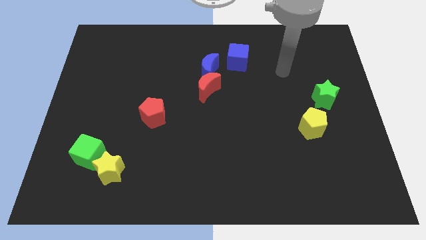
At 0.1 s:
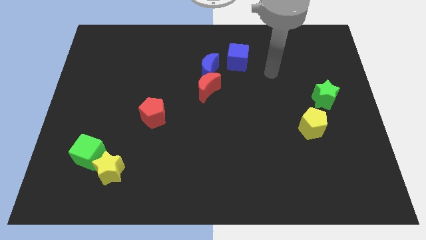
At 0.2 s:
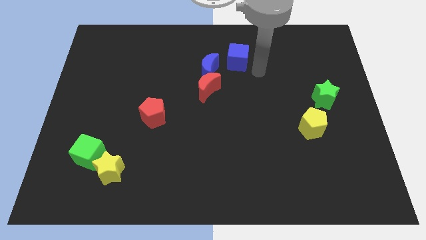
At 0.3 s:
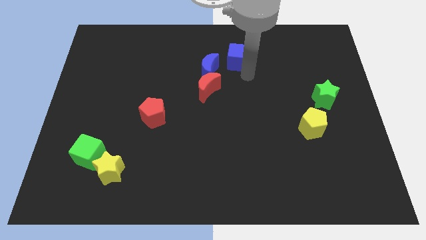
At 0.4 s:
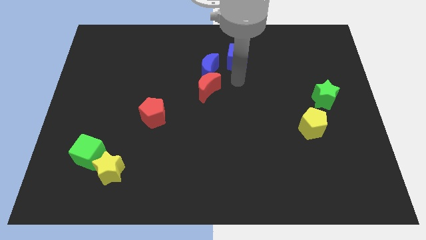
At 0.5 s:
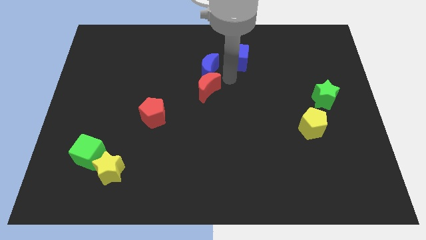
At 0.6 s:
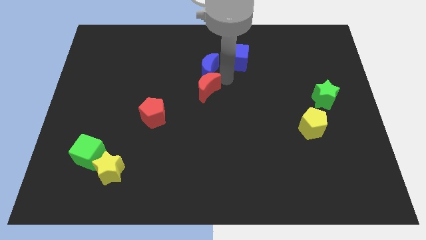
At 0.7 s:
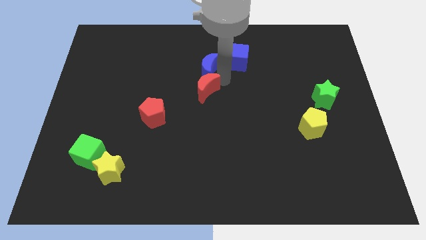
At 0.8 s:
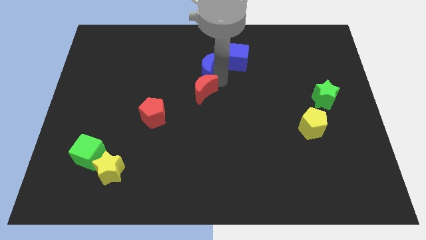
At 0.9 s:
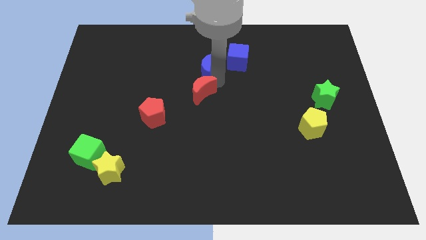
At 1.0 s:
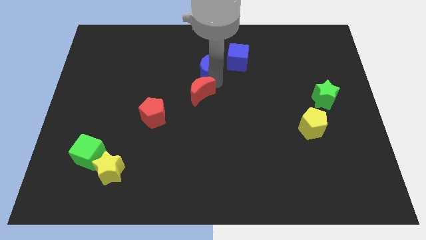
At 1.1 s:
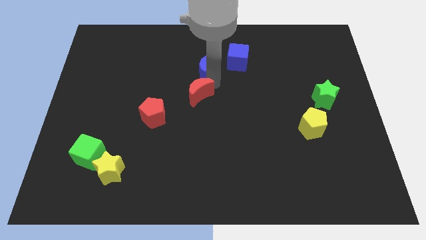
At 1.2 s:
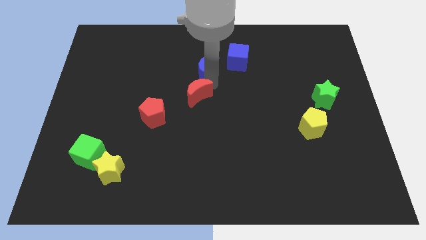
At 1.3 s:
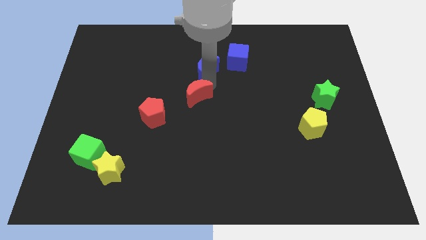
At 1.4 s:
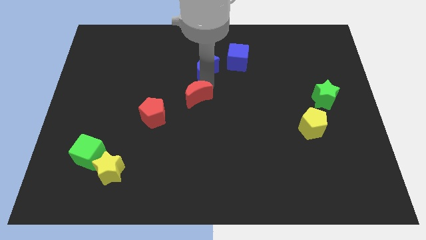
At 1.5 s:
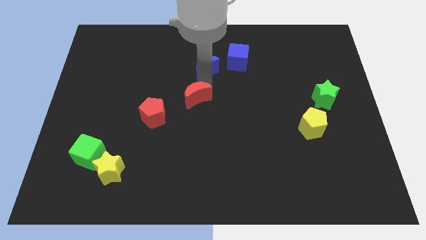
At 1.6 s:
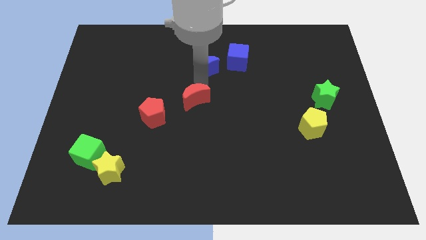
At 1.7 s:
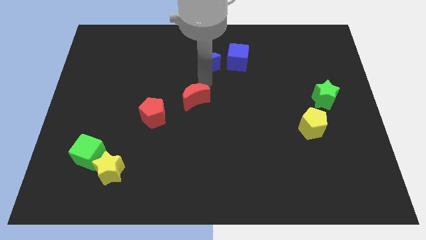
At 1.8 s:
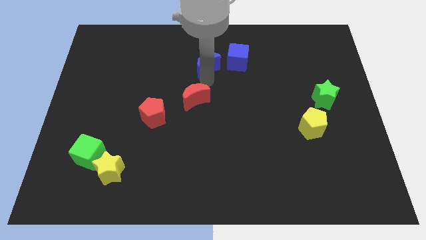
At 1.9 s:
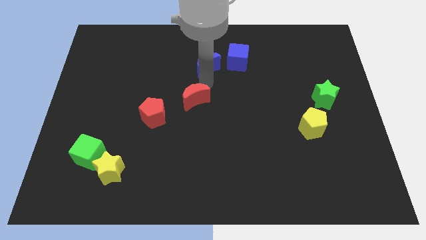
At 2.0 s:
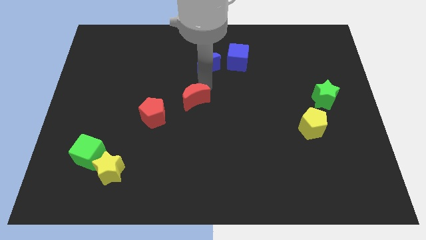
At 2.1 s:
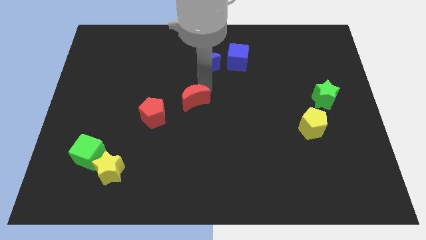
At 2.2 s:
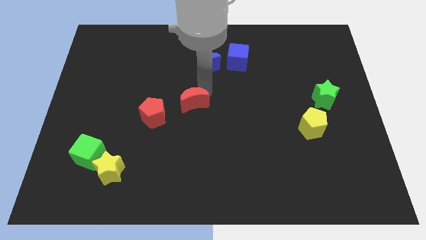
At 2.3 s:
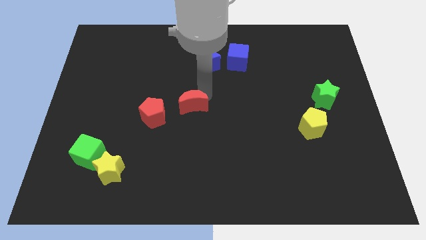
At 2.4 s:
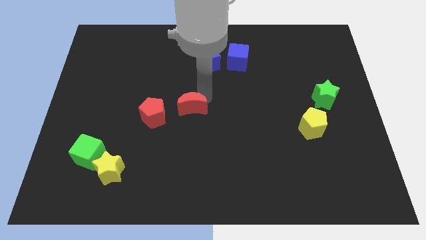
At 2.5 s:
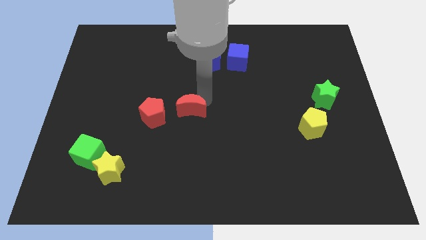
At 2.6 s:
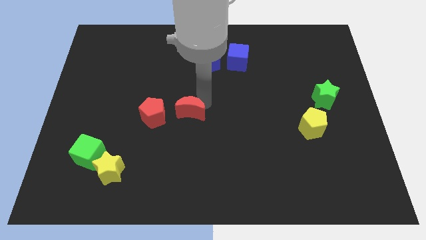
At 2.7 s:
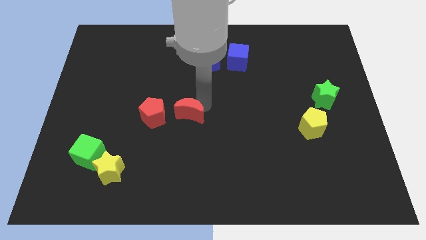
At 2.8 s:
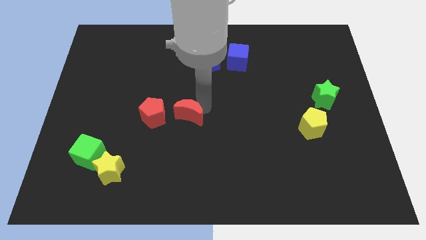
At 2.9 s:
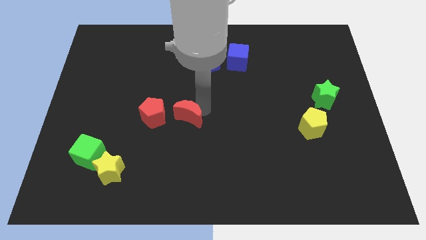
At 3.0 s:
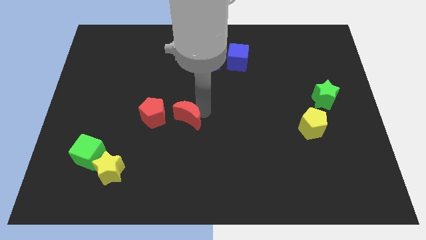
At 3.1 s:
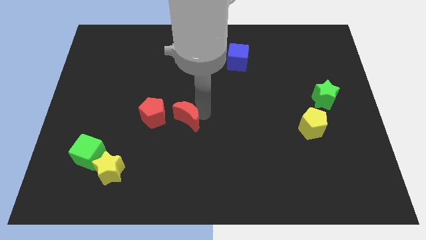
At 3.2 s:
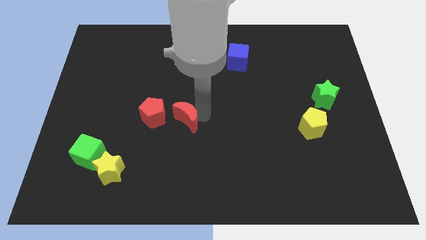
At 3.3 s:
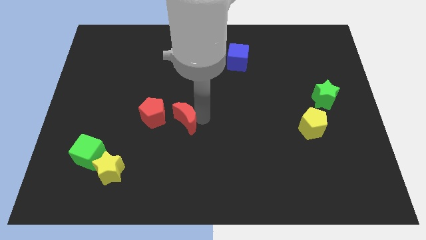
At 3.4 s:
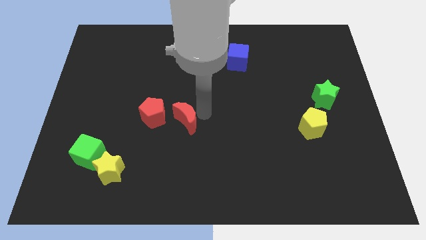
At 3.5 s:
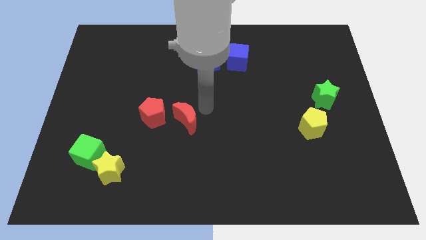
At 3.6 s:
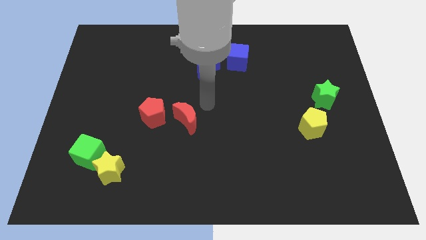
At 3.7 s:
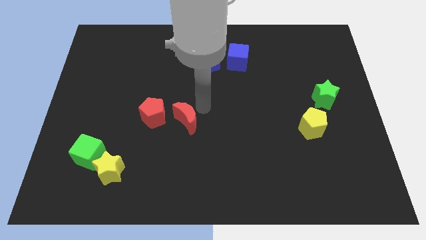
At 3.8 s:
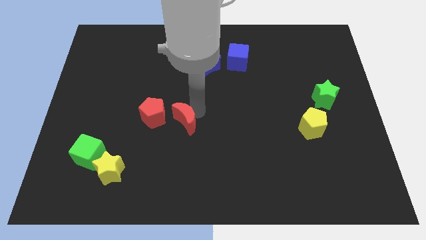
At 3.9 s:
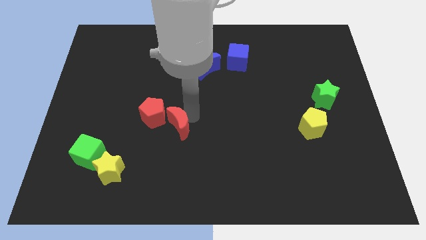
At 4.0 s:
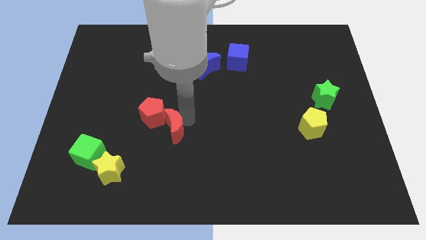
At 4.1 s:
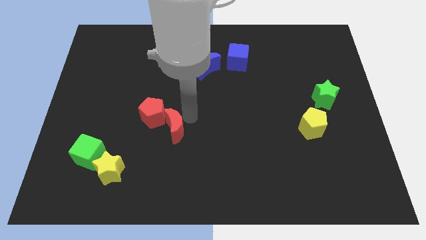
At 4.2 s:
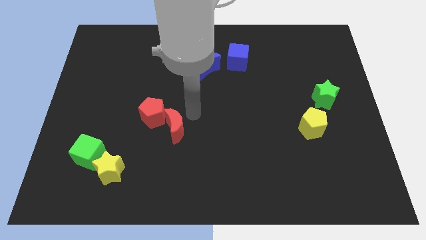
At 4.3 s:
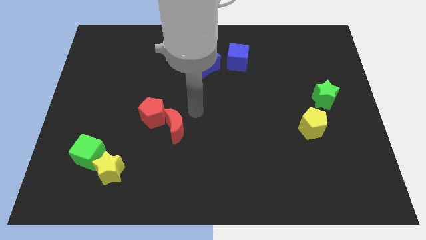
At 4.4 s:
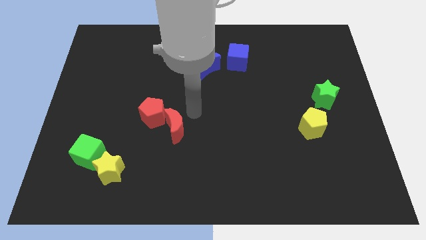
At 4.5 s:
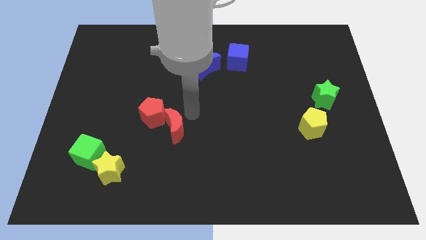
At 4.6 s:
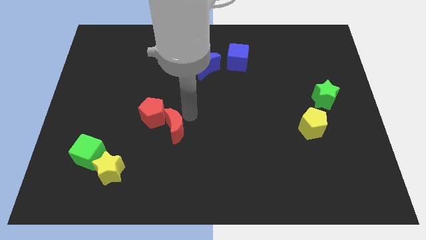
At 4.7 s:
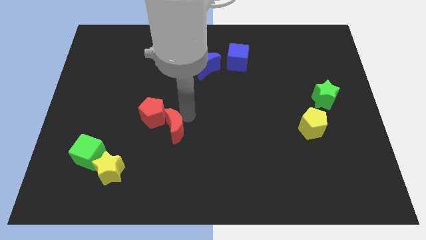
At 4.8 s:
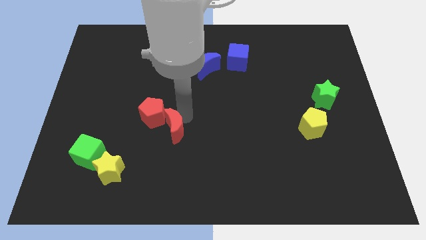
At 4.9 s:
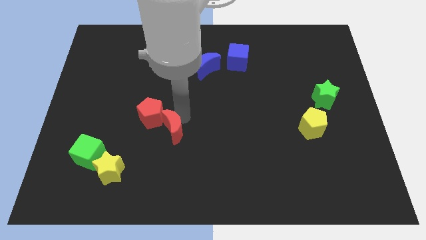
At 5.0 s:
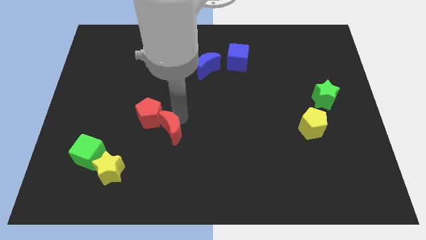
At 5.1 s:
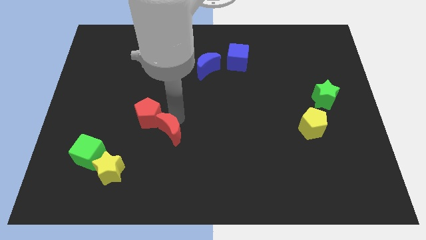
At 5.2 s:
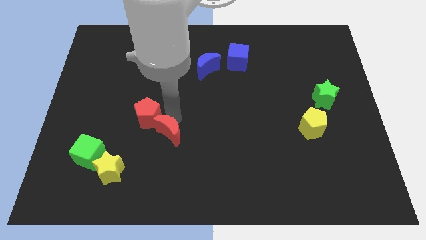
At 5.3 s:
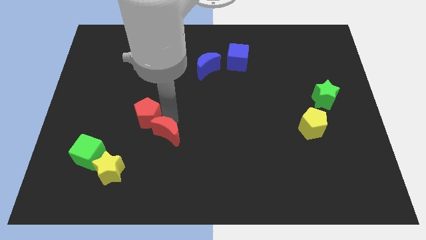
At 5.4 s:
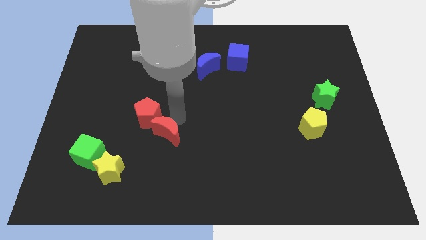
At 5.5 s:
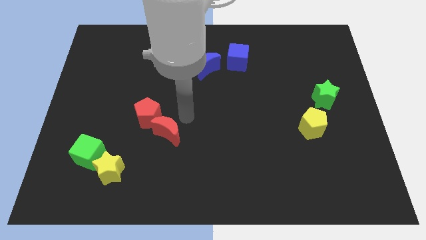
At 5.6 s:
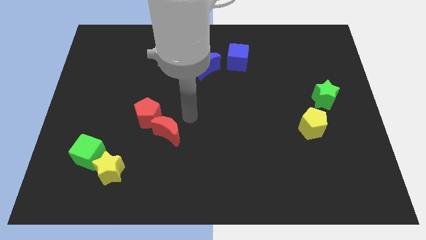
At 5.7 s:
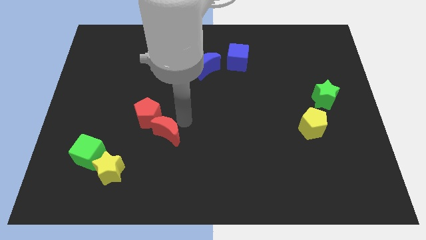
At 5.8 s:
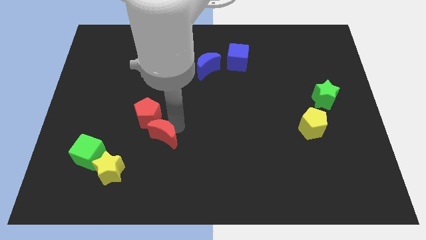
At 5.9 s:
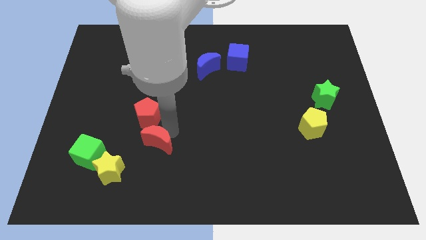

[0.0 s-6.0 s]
move the red moon to the right side of the green cube

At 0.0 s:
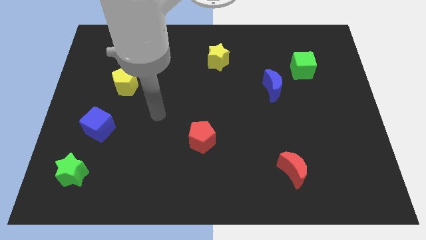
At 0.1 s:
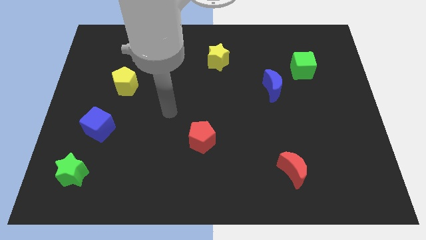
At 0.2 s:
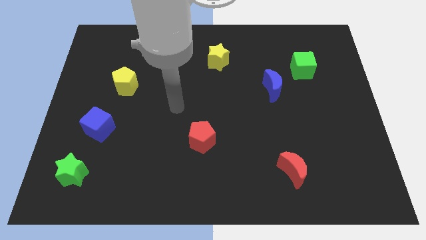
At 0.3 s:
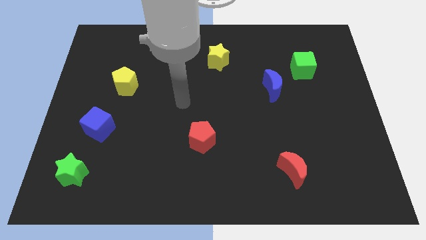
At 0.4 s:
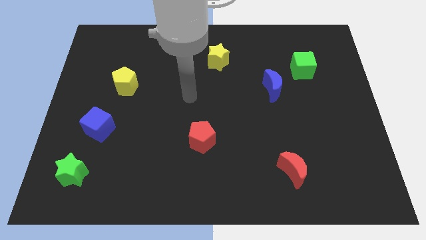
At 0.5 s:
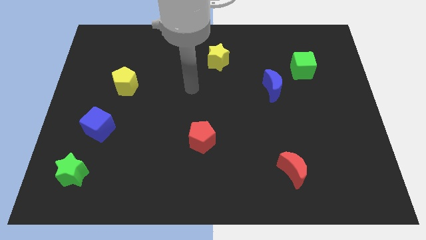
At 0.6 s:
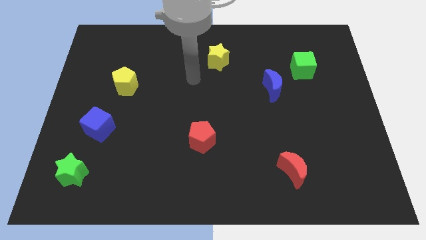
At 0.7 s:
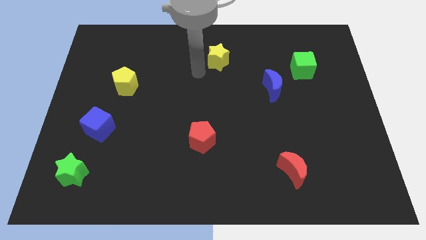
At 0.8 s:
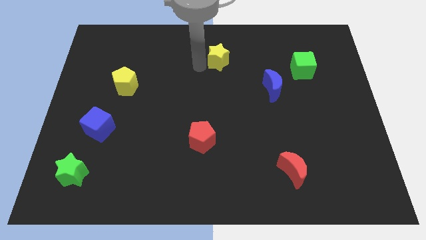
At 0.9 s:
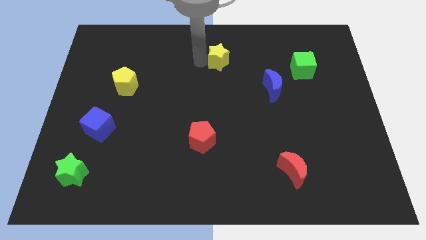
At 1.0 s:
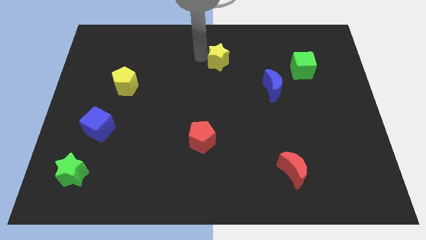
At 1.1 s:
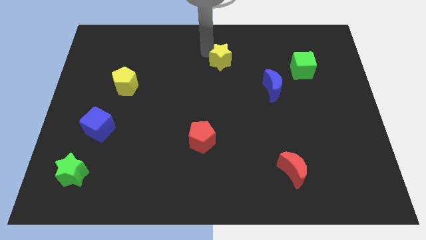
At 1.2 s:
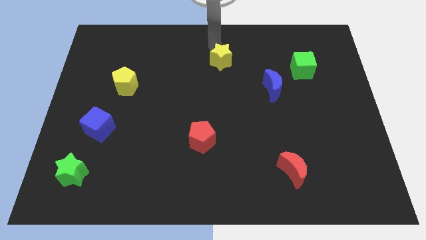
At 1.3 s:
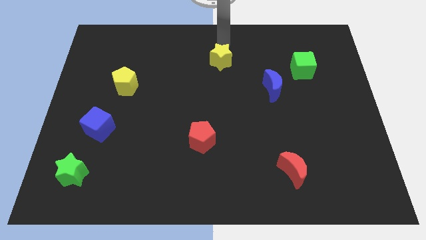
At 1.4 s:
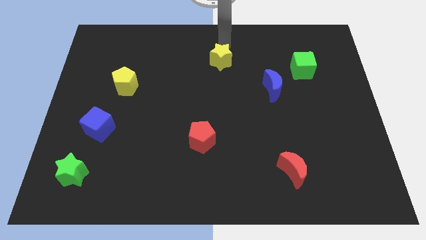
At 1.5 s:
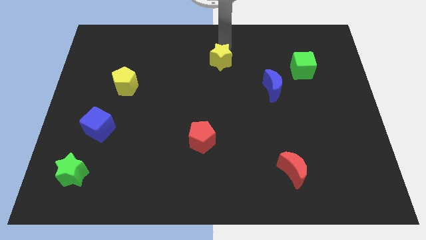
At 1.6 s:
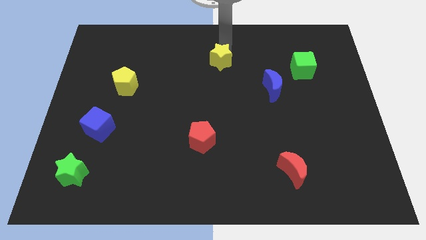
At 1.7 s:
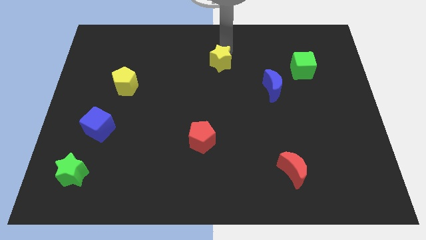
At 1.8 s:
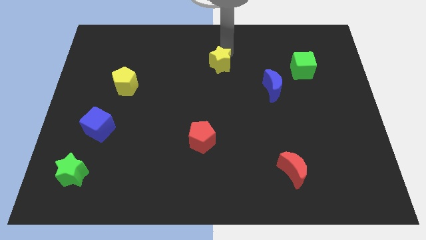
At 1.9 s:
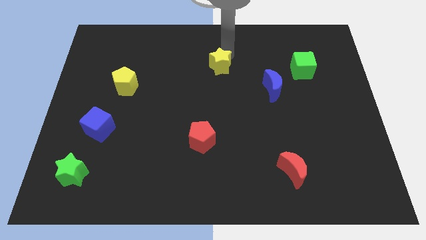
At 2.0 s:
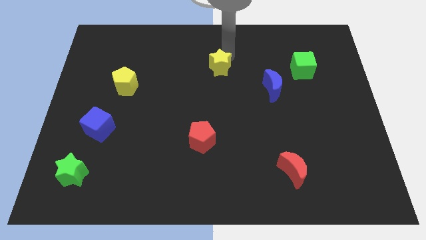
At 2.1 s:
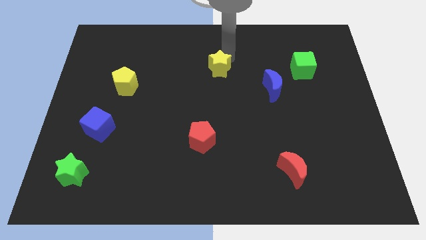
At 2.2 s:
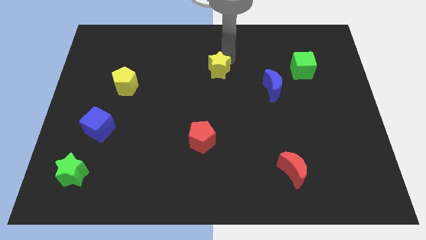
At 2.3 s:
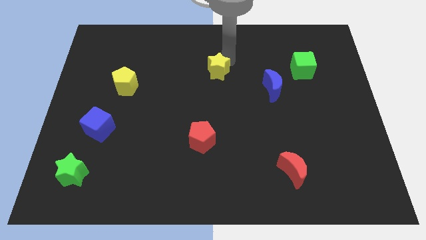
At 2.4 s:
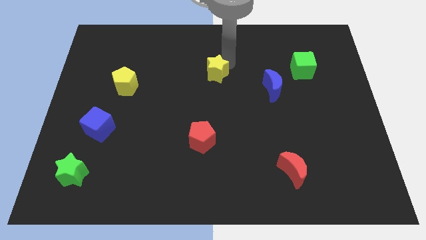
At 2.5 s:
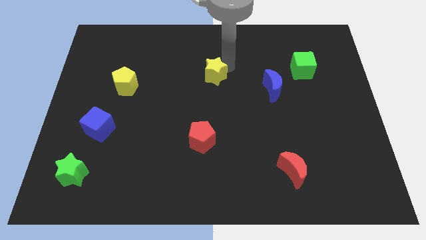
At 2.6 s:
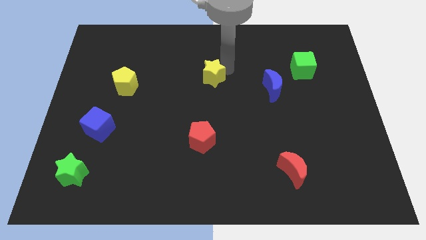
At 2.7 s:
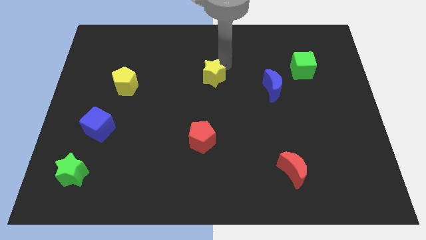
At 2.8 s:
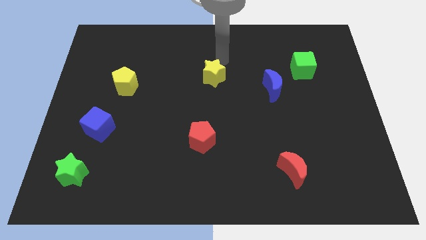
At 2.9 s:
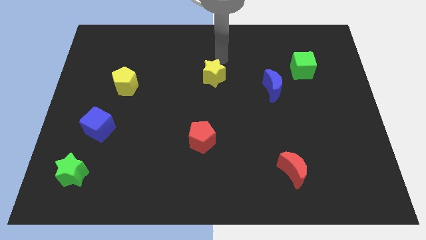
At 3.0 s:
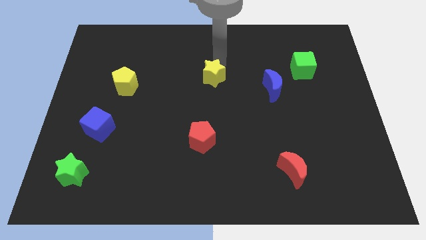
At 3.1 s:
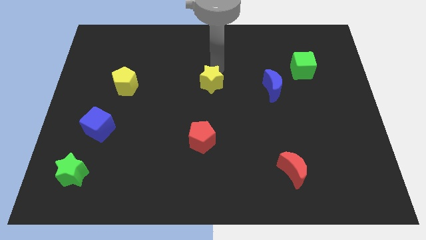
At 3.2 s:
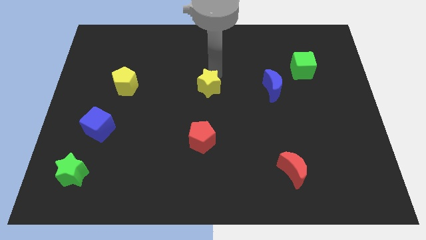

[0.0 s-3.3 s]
push the yellow star above the red pentagon
